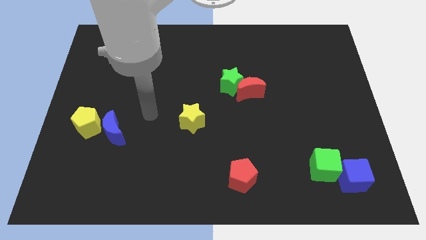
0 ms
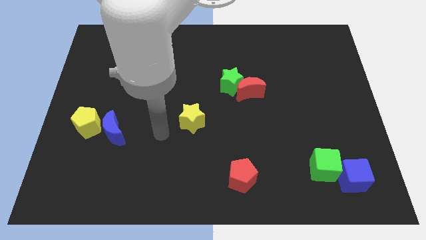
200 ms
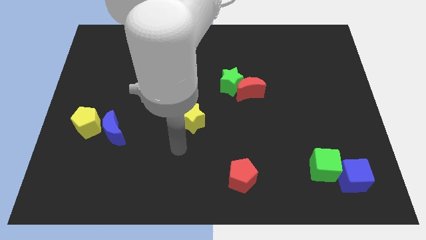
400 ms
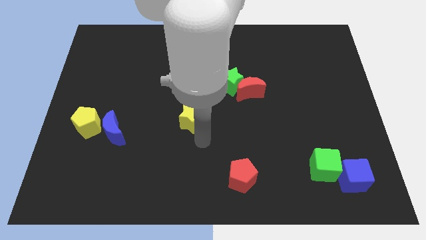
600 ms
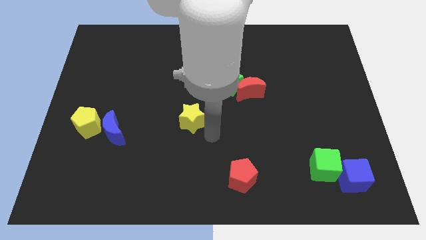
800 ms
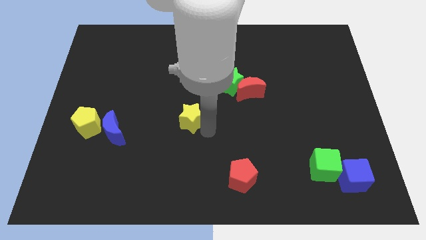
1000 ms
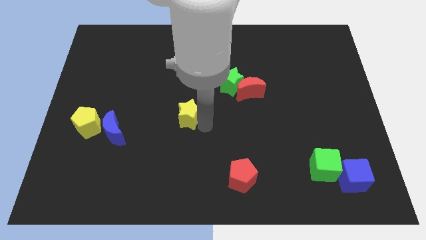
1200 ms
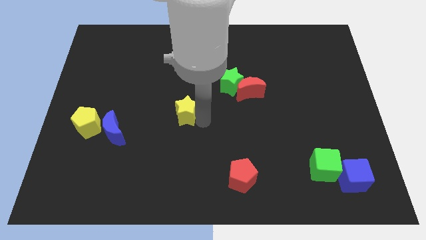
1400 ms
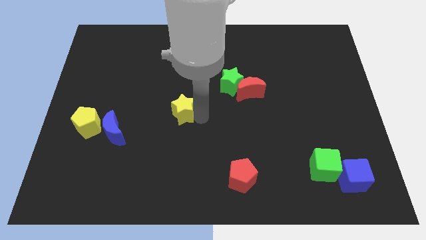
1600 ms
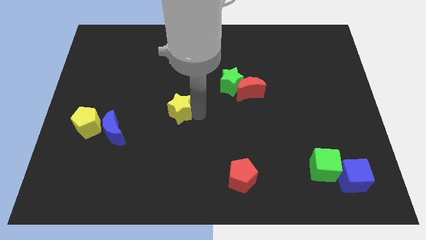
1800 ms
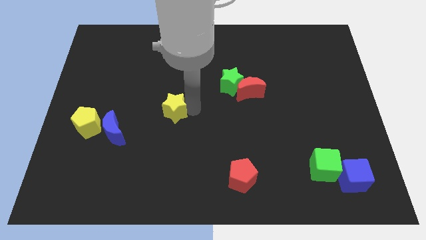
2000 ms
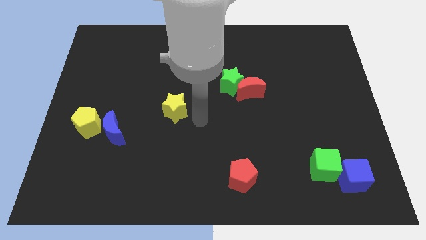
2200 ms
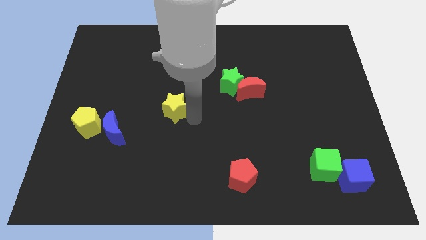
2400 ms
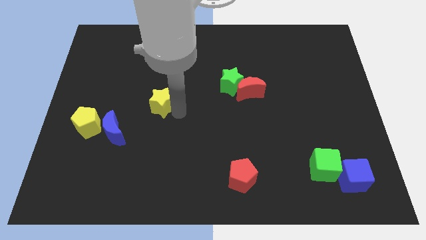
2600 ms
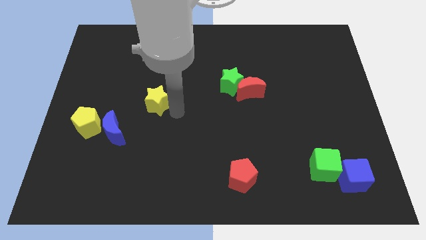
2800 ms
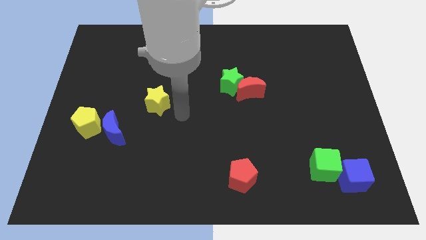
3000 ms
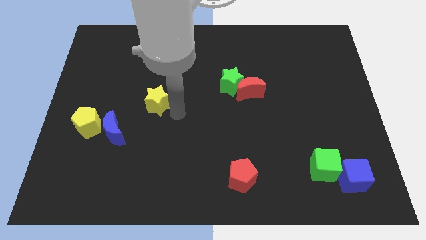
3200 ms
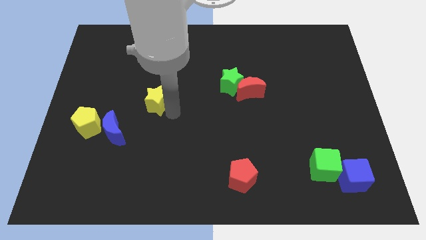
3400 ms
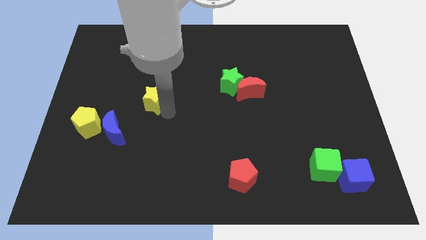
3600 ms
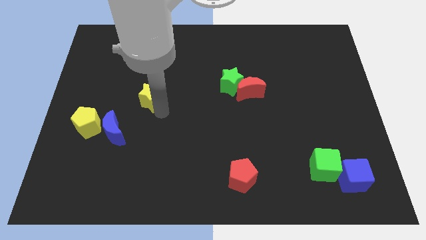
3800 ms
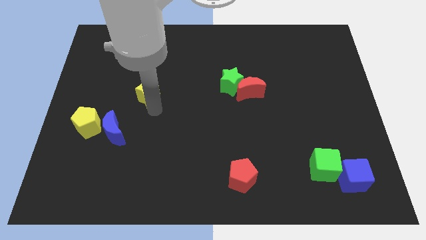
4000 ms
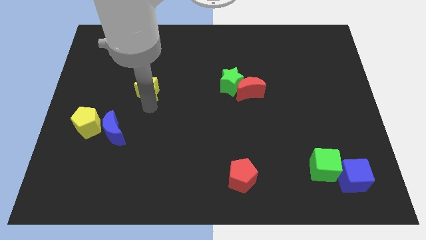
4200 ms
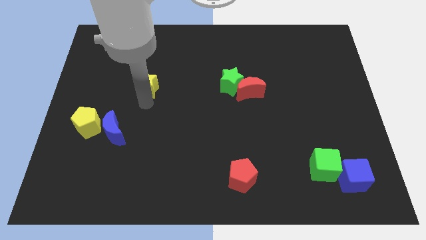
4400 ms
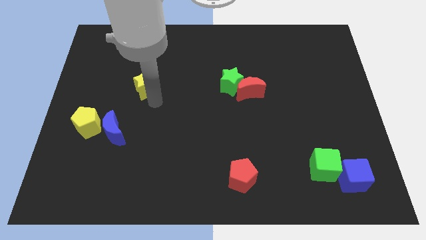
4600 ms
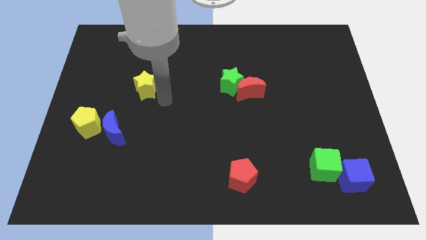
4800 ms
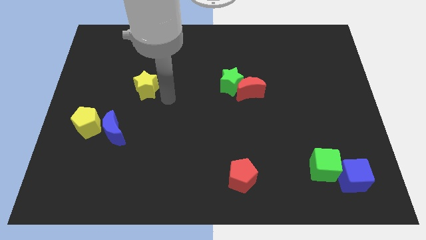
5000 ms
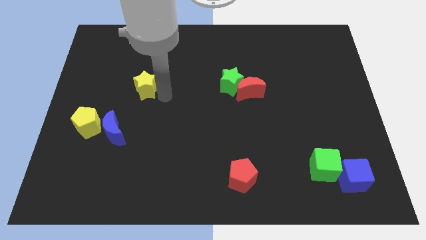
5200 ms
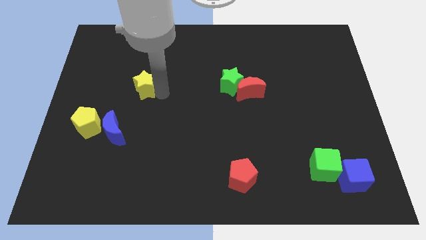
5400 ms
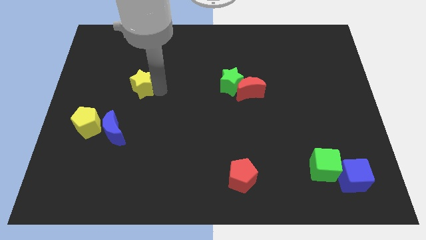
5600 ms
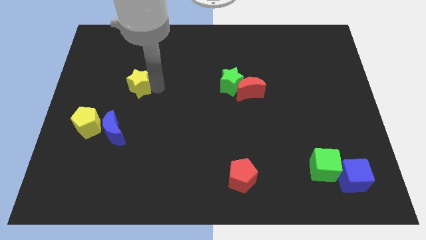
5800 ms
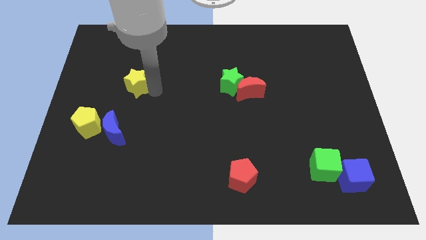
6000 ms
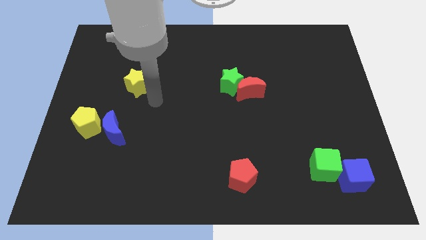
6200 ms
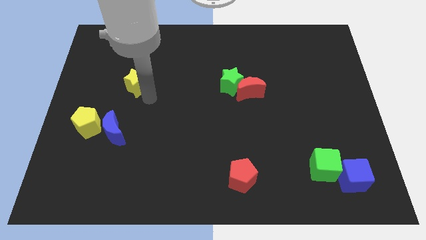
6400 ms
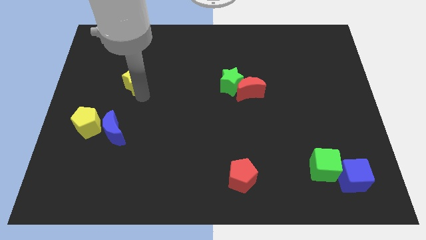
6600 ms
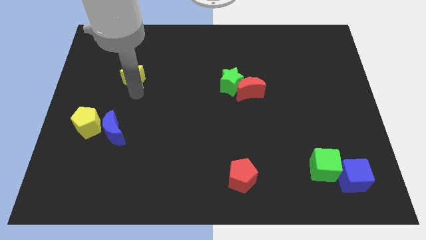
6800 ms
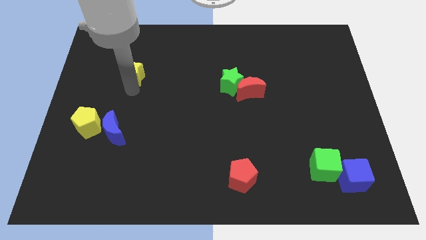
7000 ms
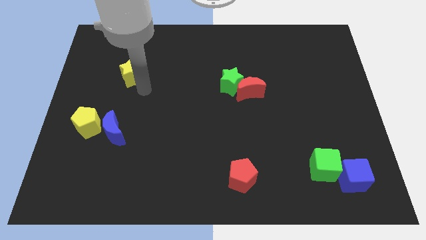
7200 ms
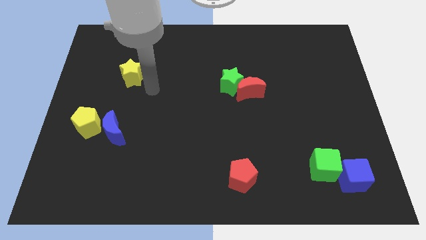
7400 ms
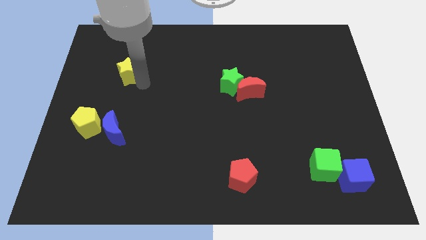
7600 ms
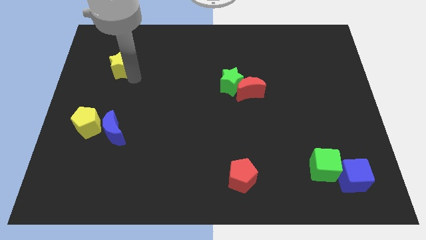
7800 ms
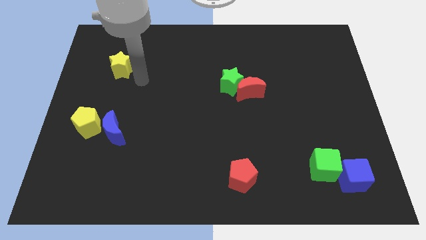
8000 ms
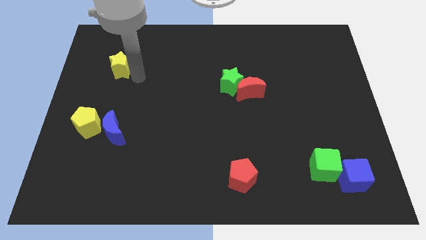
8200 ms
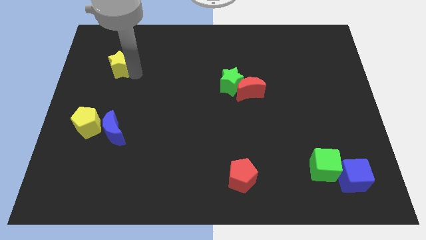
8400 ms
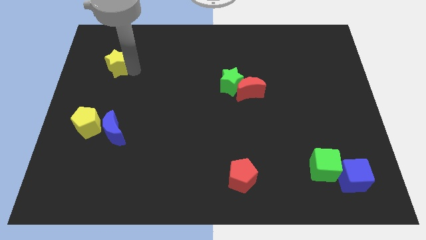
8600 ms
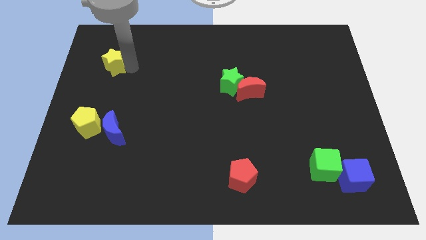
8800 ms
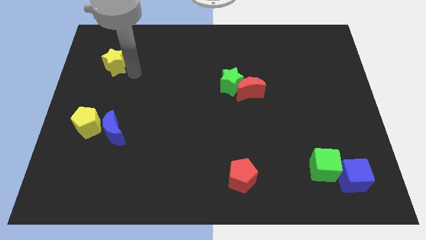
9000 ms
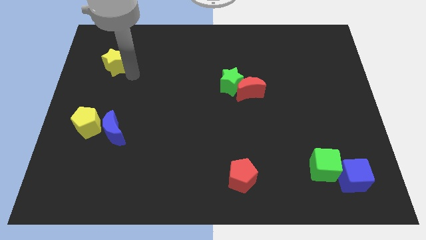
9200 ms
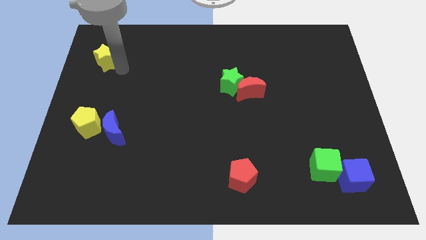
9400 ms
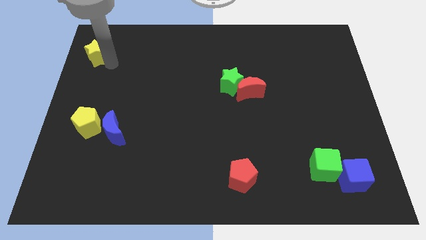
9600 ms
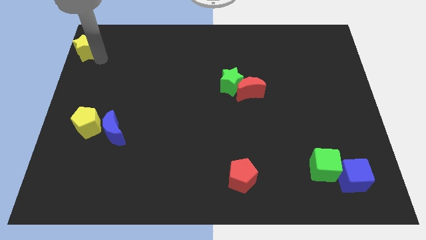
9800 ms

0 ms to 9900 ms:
push the yellow star to the top left corner

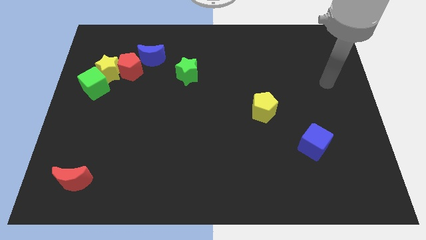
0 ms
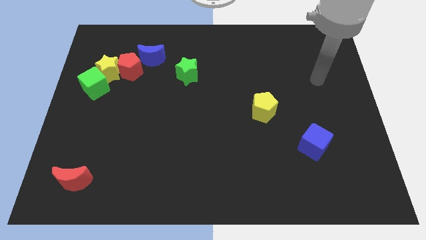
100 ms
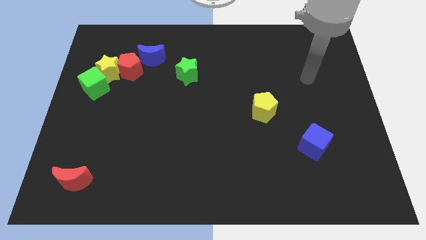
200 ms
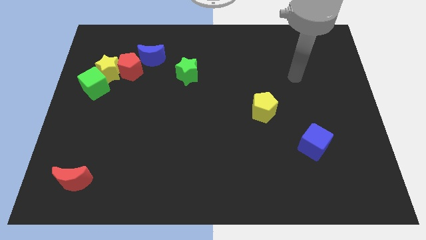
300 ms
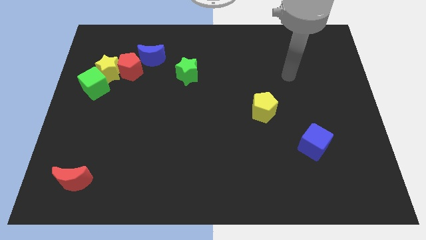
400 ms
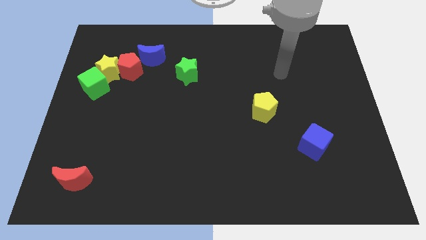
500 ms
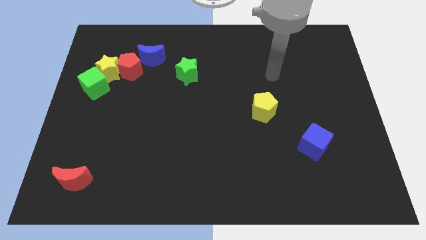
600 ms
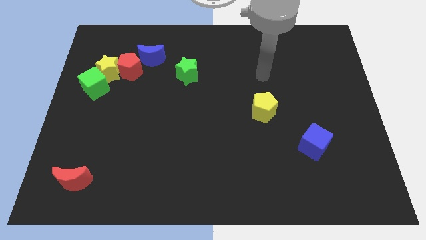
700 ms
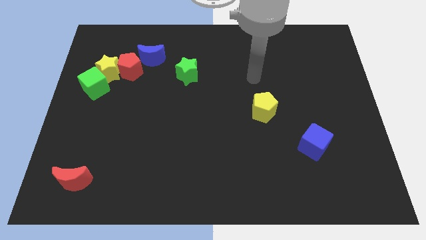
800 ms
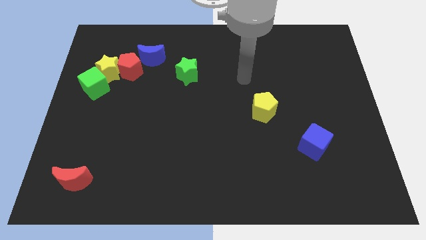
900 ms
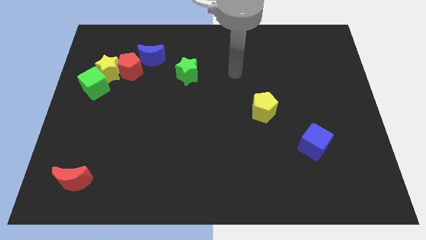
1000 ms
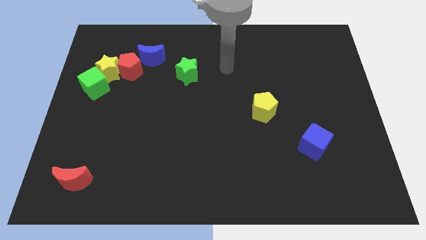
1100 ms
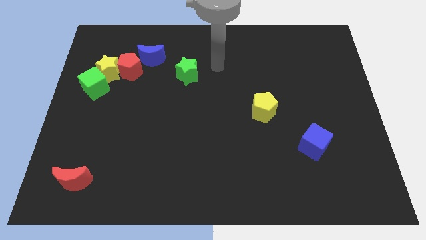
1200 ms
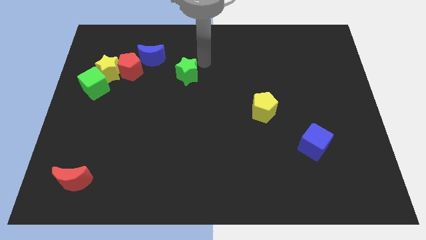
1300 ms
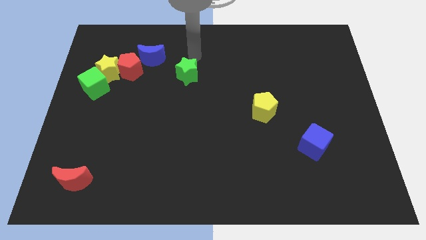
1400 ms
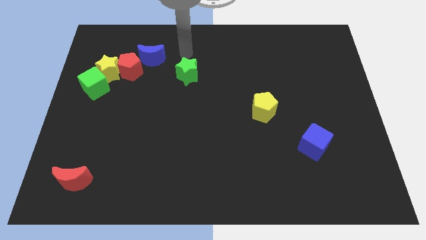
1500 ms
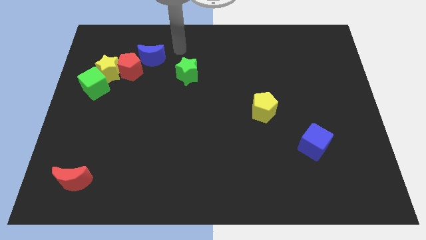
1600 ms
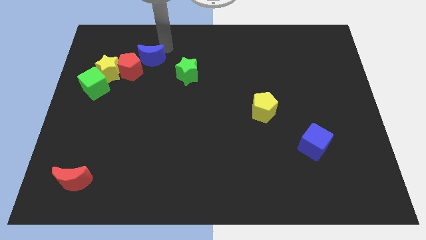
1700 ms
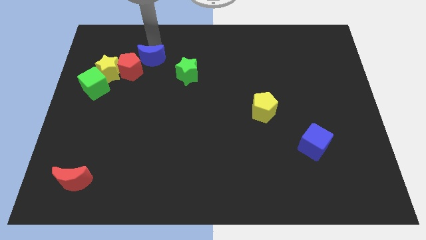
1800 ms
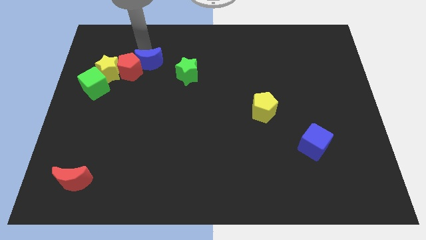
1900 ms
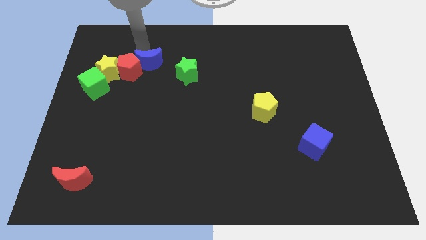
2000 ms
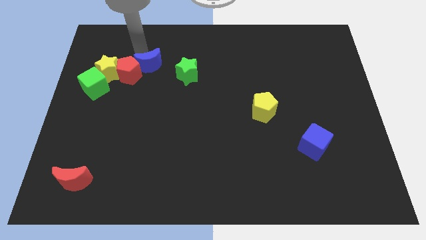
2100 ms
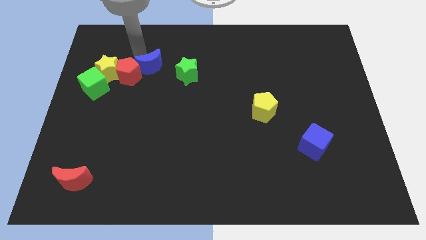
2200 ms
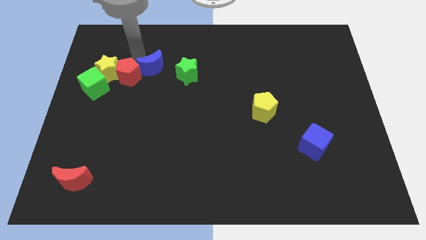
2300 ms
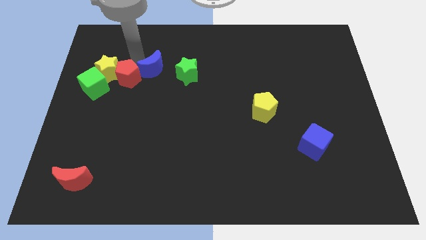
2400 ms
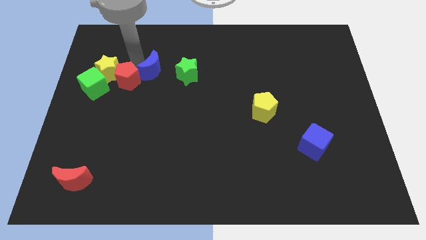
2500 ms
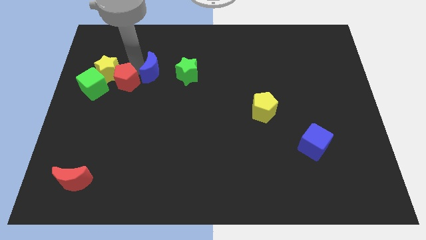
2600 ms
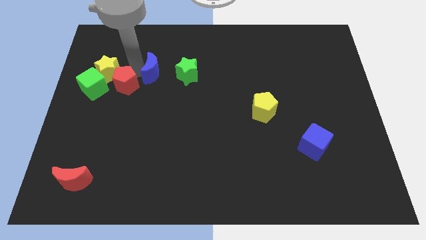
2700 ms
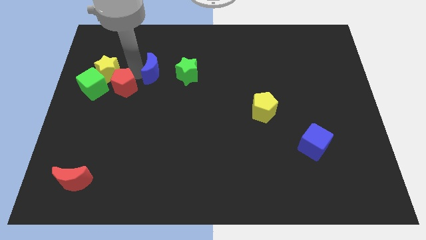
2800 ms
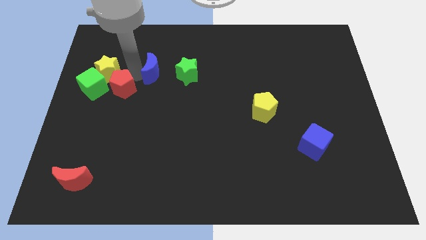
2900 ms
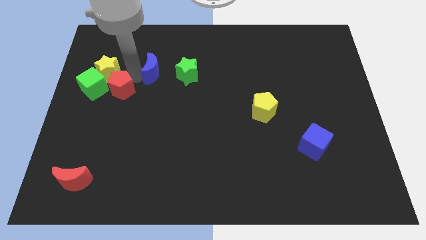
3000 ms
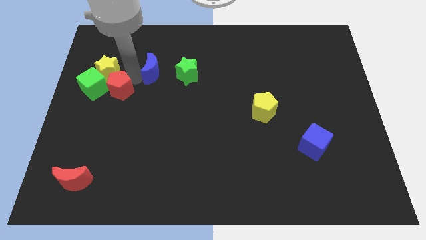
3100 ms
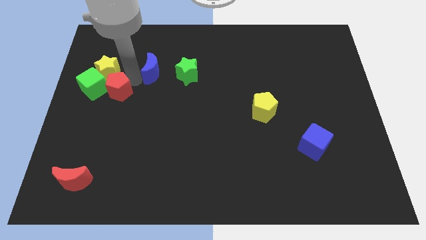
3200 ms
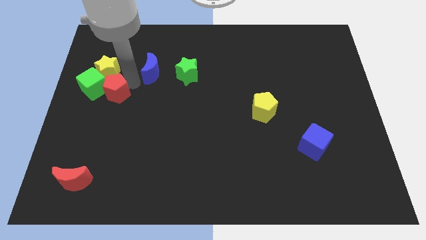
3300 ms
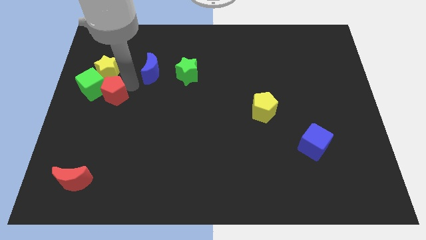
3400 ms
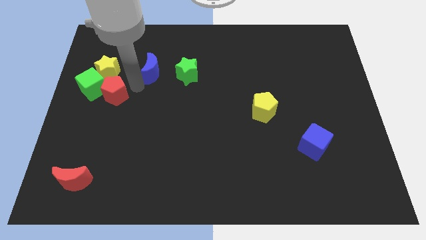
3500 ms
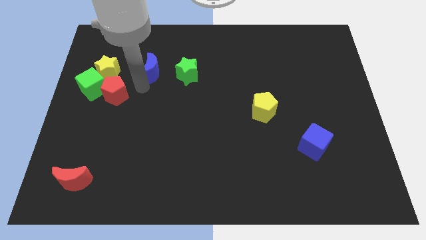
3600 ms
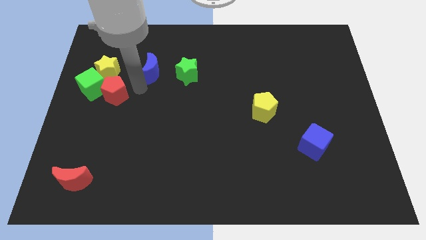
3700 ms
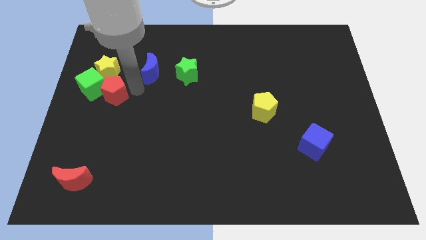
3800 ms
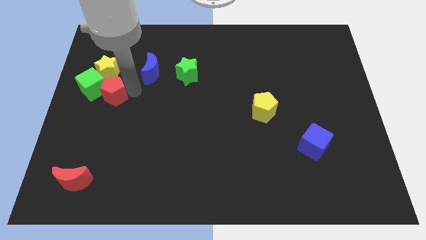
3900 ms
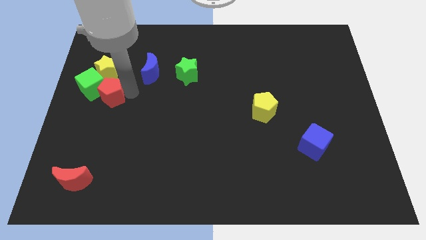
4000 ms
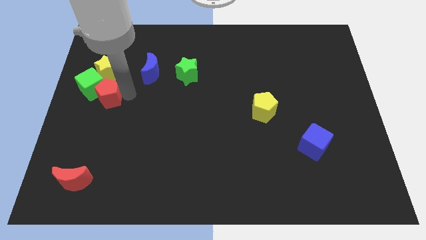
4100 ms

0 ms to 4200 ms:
push the red pentagon to the left side of the board
